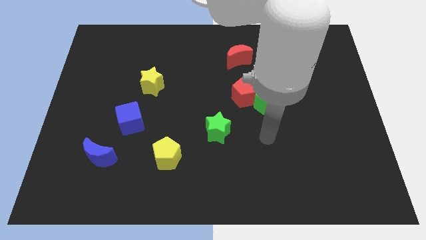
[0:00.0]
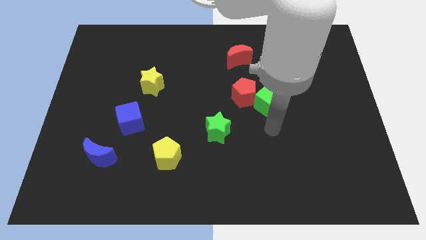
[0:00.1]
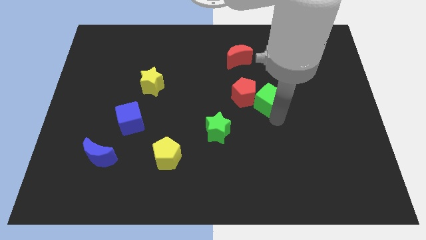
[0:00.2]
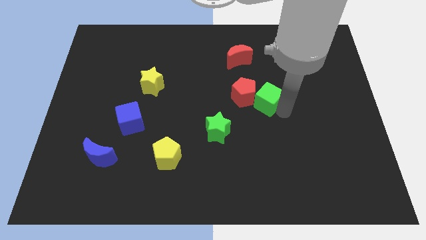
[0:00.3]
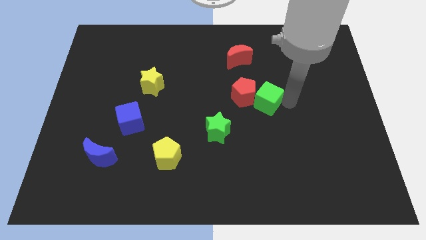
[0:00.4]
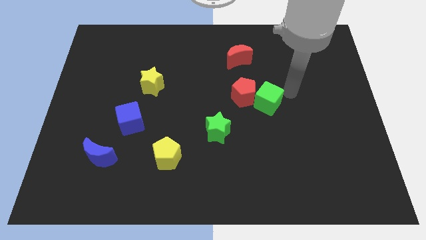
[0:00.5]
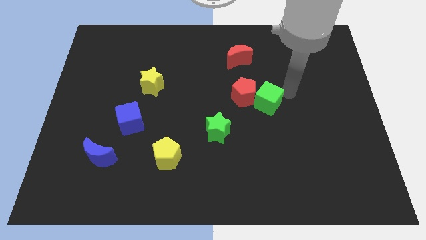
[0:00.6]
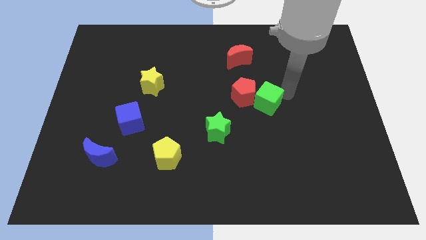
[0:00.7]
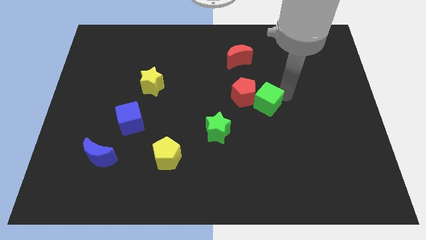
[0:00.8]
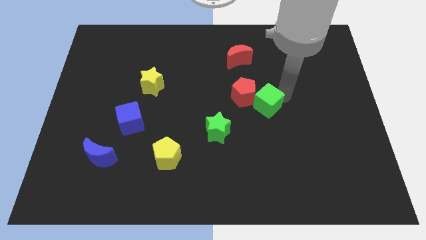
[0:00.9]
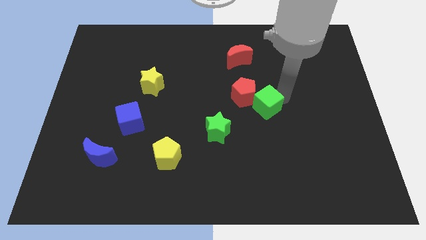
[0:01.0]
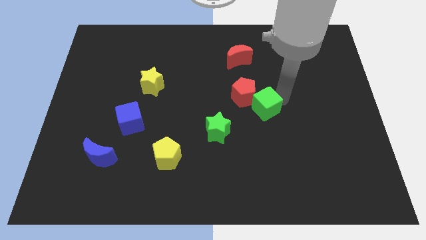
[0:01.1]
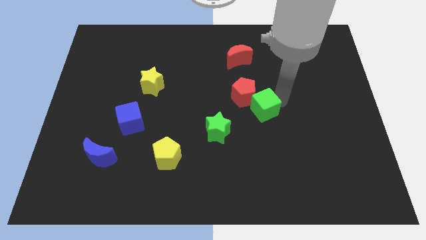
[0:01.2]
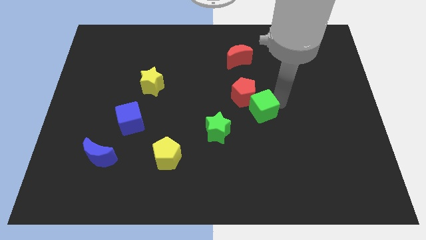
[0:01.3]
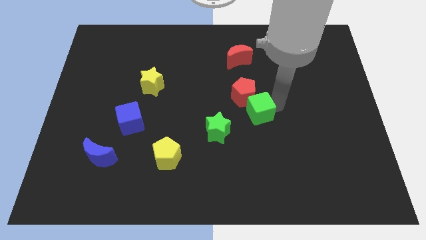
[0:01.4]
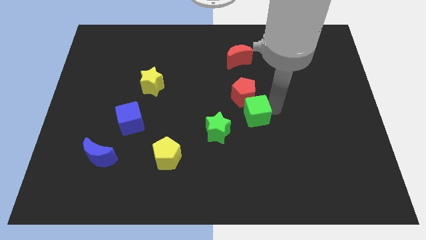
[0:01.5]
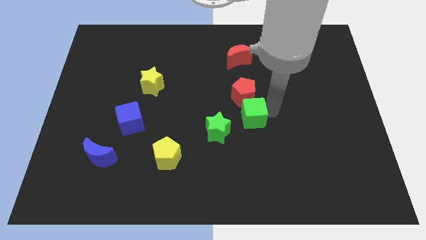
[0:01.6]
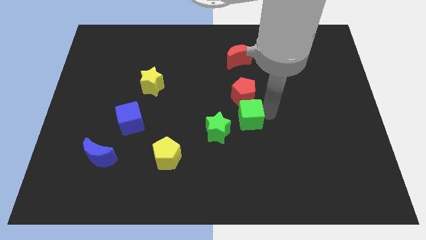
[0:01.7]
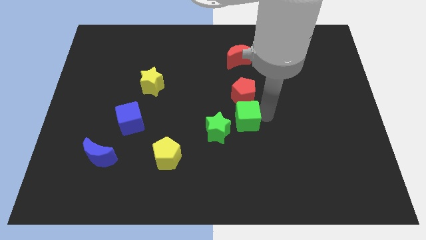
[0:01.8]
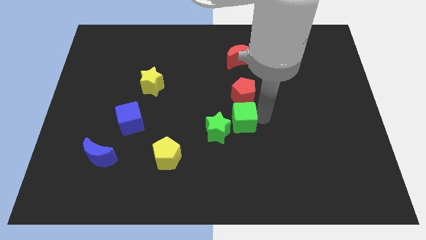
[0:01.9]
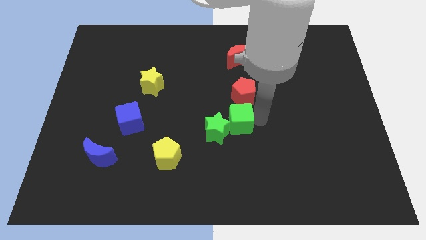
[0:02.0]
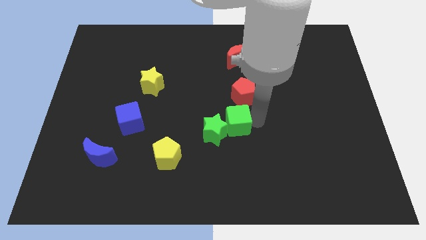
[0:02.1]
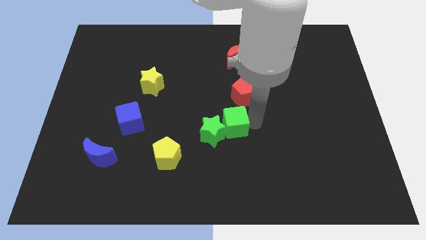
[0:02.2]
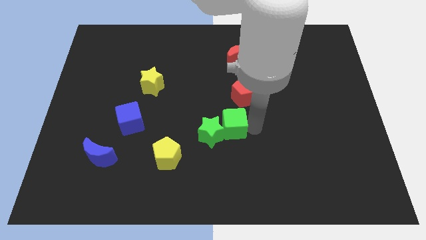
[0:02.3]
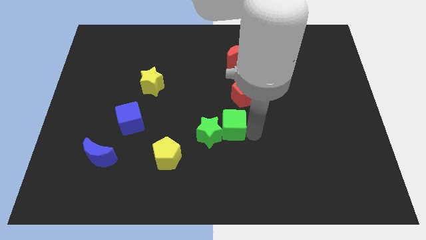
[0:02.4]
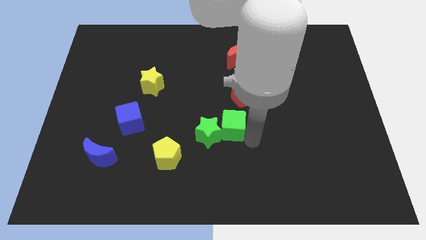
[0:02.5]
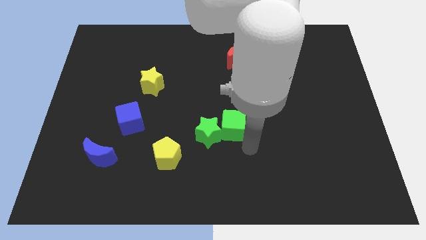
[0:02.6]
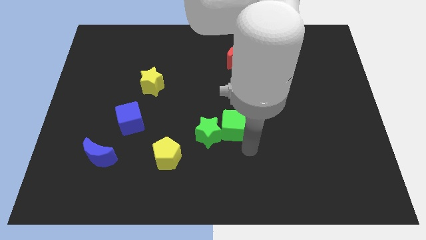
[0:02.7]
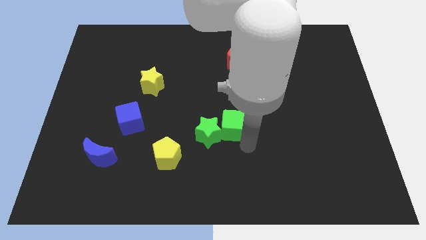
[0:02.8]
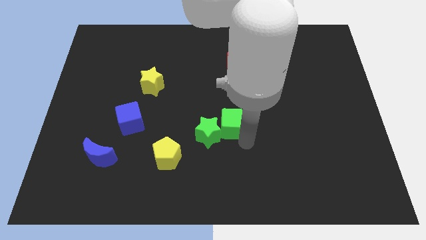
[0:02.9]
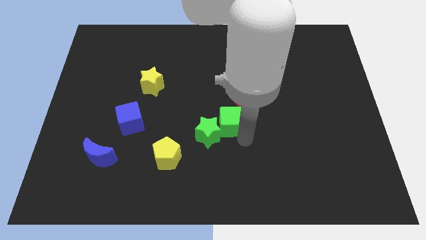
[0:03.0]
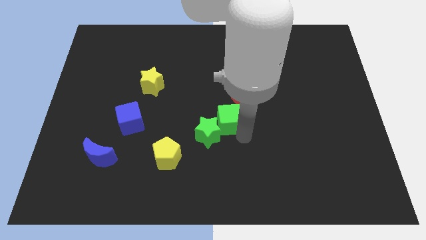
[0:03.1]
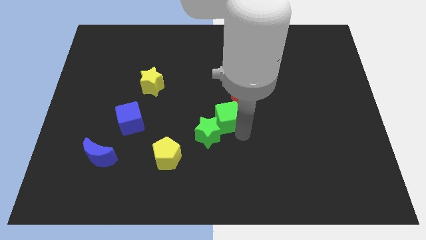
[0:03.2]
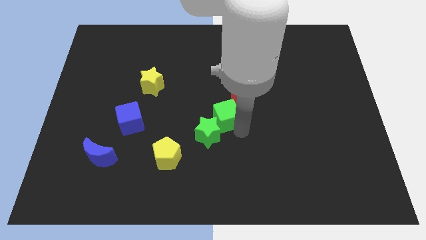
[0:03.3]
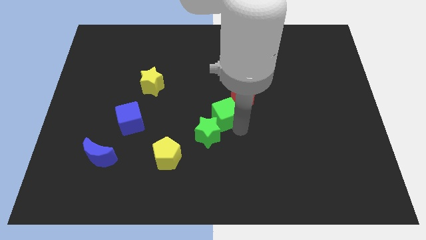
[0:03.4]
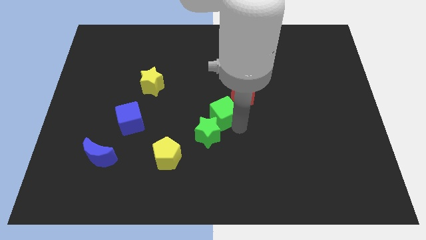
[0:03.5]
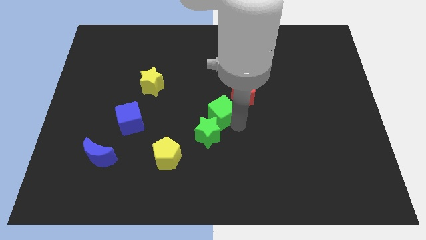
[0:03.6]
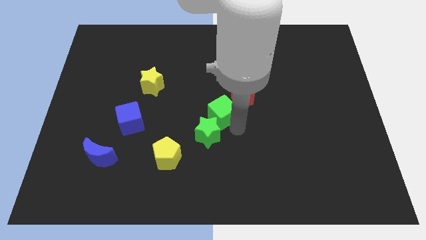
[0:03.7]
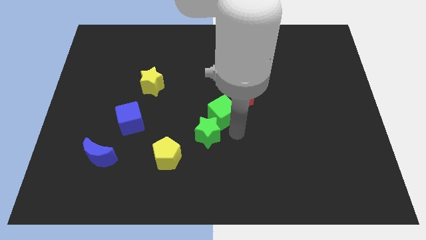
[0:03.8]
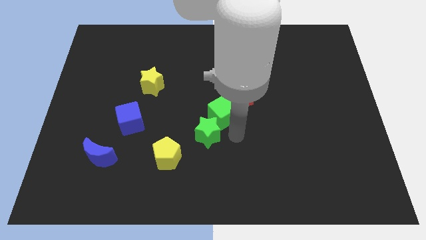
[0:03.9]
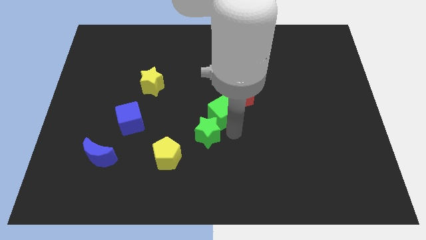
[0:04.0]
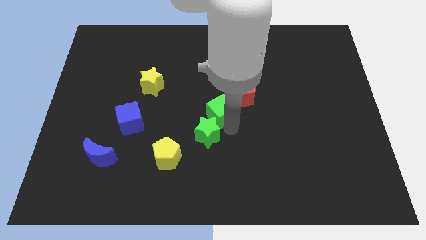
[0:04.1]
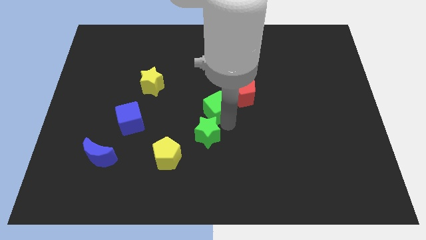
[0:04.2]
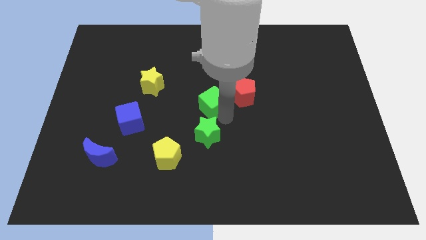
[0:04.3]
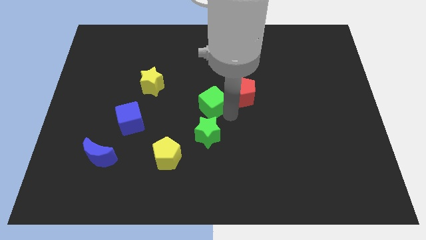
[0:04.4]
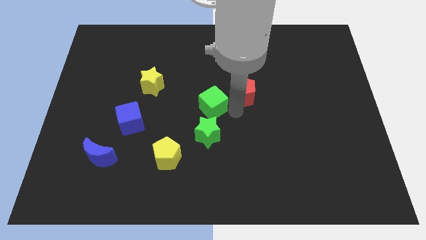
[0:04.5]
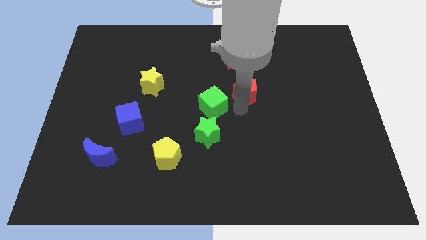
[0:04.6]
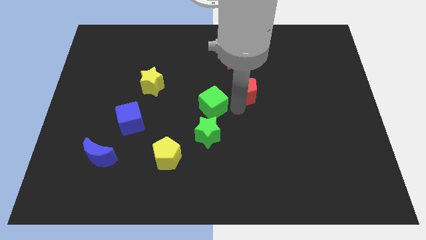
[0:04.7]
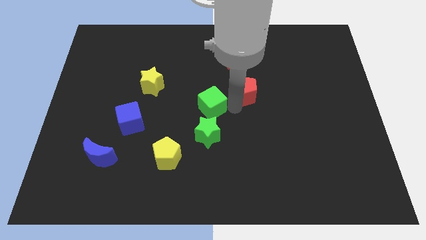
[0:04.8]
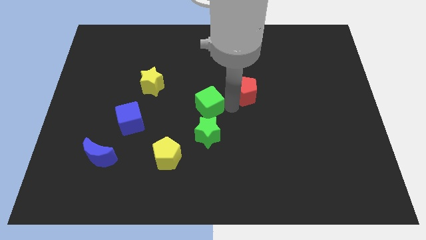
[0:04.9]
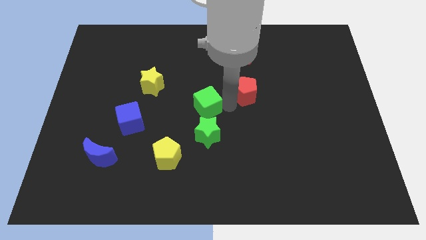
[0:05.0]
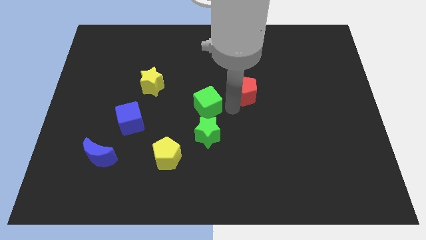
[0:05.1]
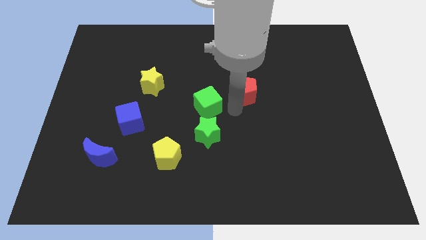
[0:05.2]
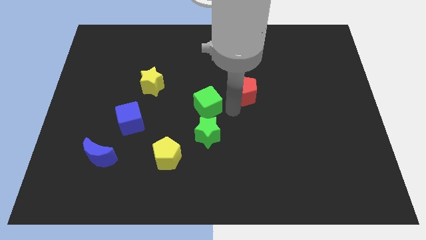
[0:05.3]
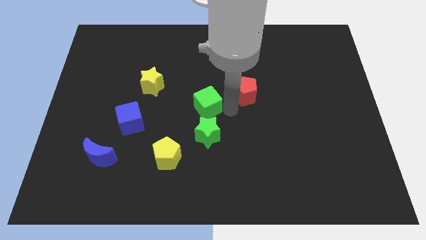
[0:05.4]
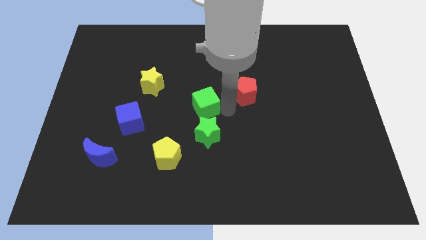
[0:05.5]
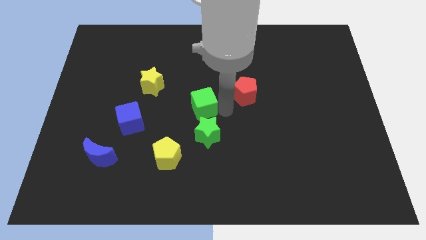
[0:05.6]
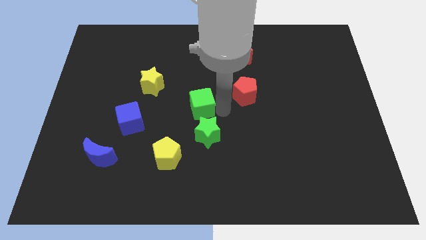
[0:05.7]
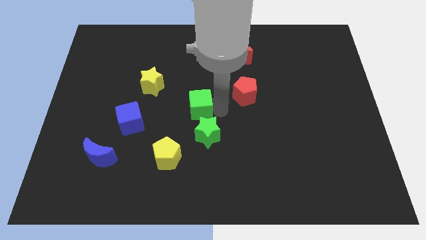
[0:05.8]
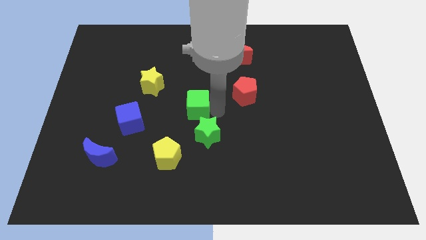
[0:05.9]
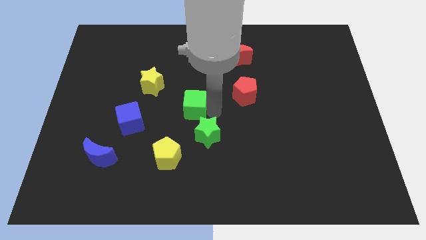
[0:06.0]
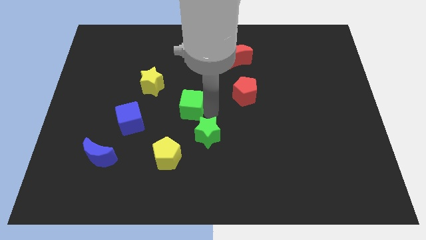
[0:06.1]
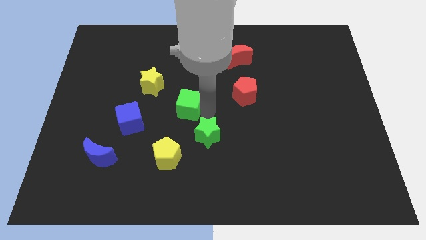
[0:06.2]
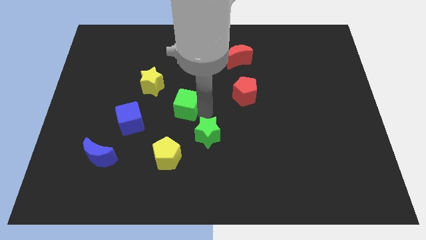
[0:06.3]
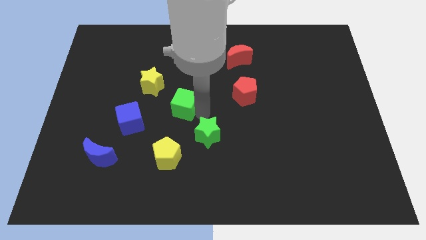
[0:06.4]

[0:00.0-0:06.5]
move the green cube left

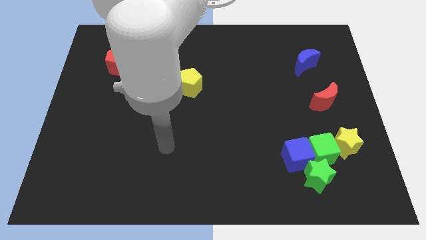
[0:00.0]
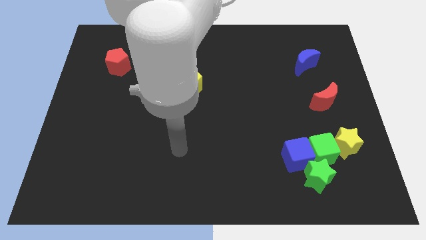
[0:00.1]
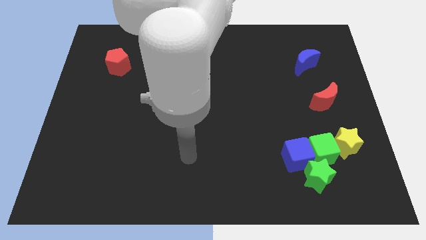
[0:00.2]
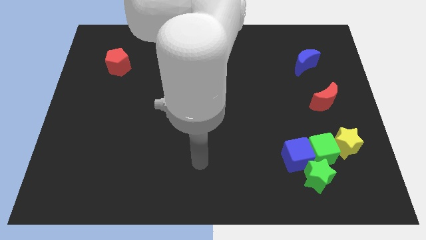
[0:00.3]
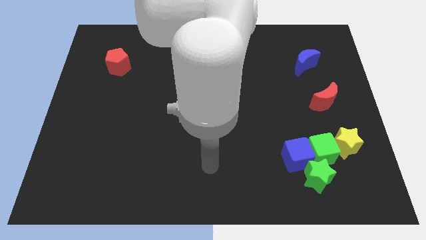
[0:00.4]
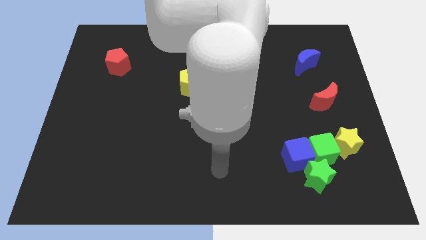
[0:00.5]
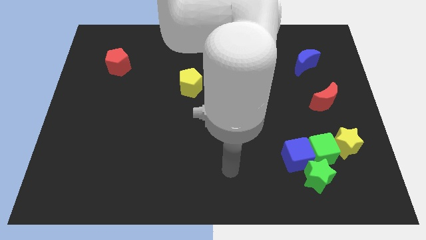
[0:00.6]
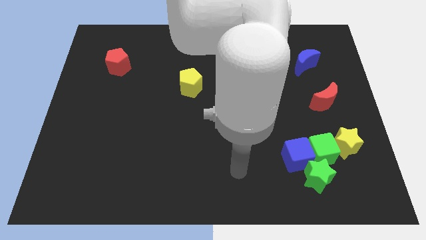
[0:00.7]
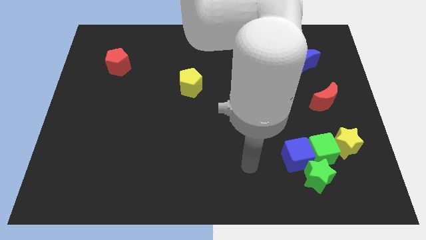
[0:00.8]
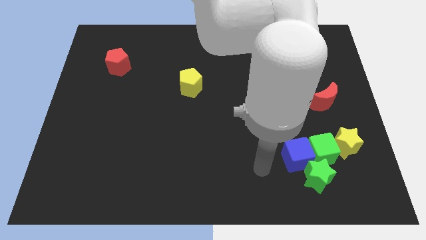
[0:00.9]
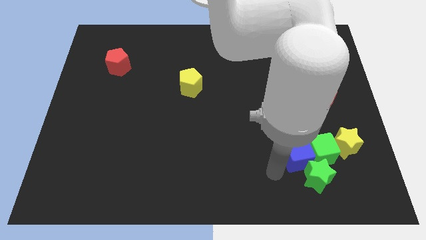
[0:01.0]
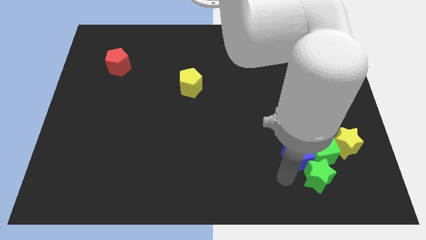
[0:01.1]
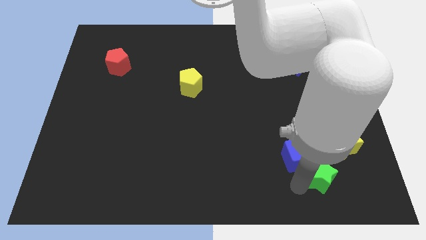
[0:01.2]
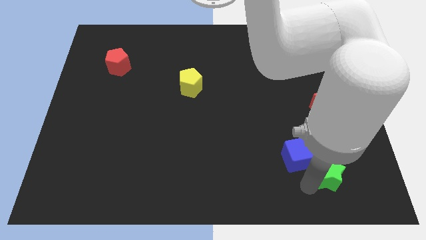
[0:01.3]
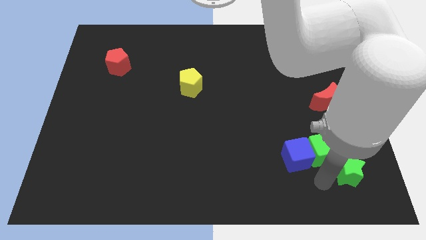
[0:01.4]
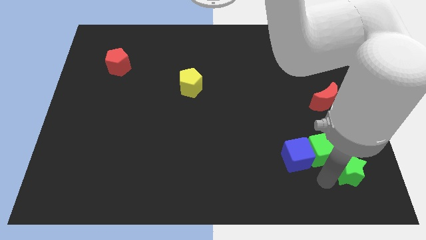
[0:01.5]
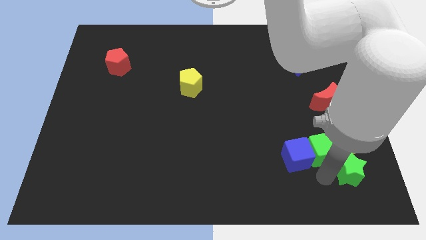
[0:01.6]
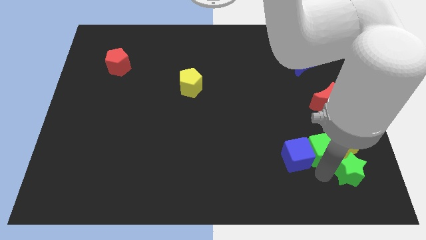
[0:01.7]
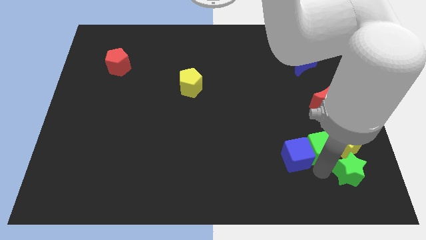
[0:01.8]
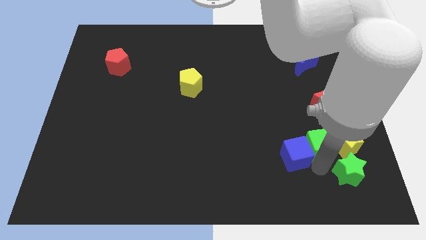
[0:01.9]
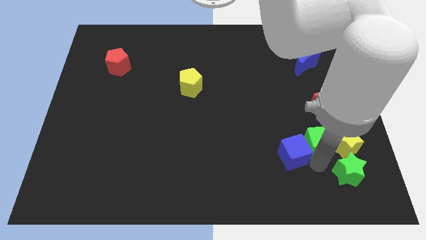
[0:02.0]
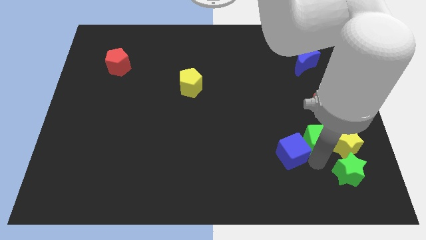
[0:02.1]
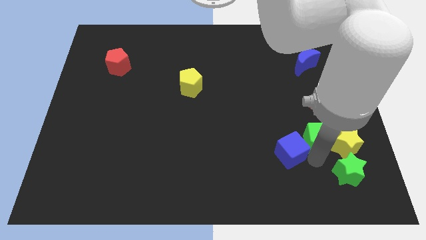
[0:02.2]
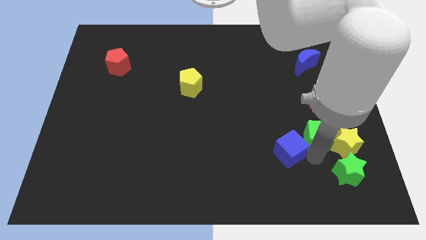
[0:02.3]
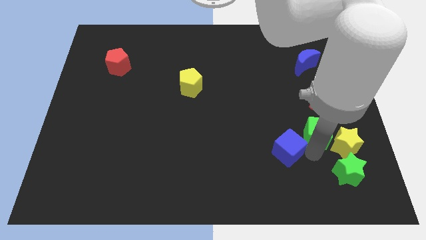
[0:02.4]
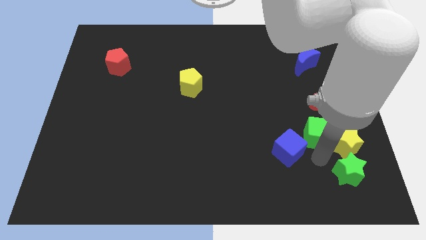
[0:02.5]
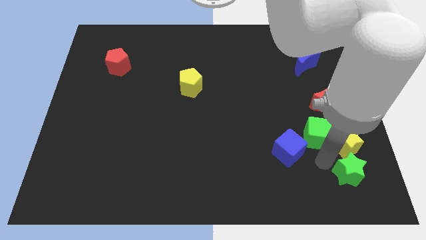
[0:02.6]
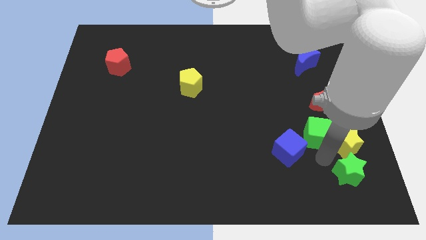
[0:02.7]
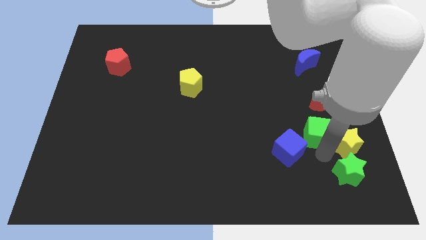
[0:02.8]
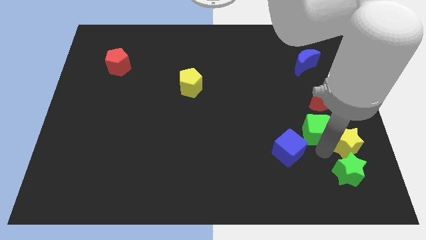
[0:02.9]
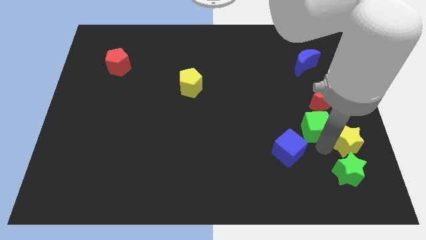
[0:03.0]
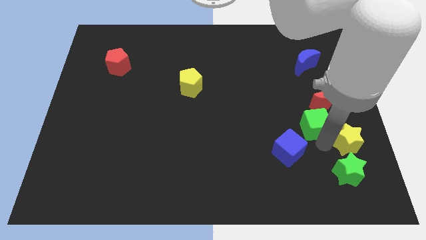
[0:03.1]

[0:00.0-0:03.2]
slide the green cube up slightly
